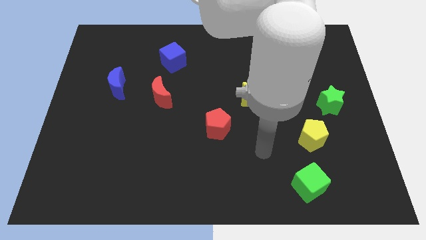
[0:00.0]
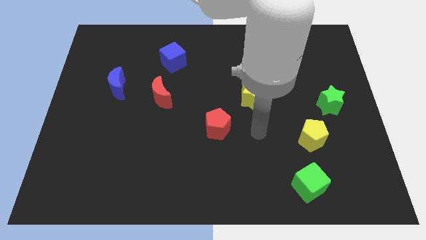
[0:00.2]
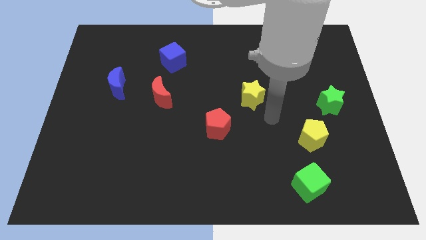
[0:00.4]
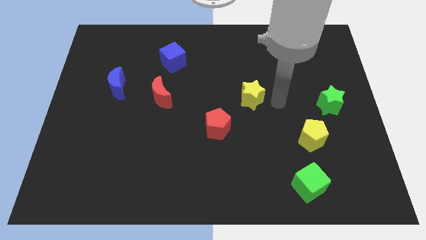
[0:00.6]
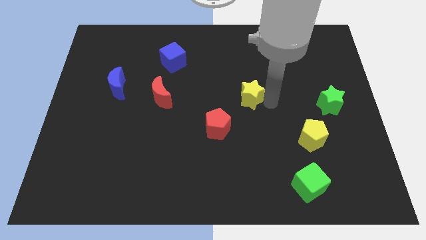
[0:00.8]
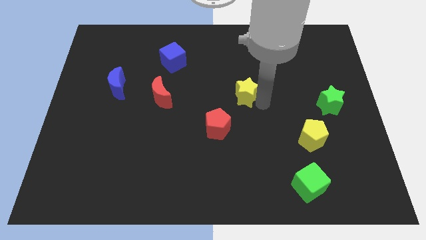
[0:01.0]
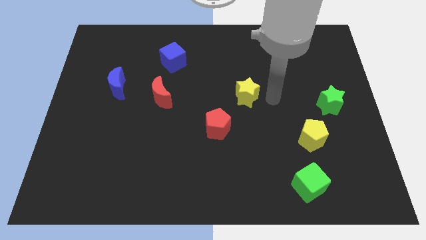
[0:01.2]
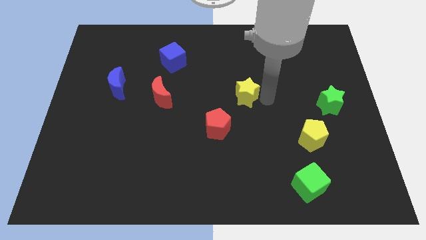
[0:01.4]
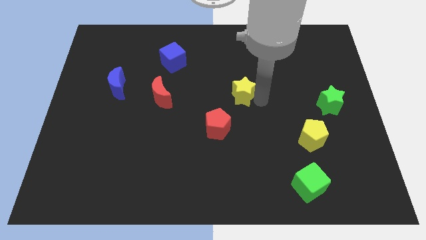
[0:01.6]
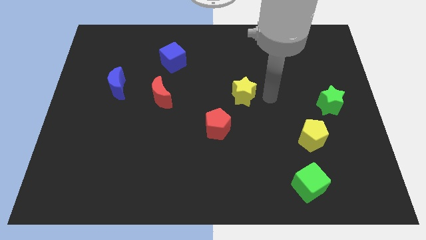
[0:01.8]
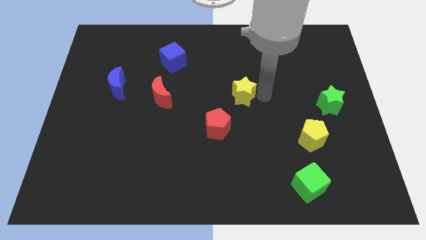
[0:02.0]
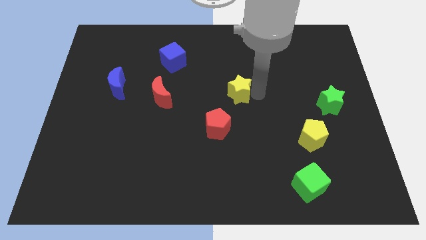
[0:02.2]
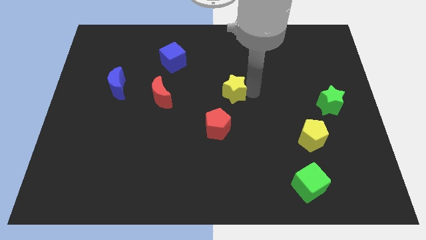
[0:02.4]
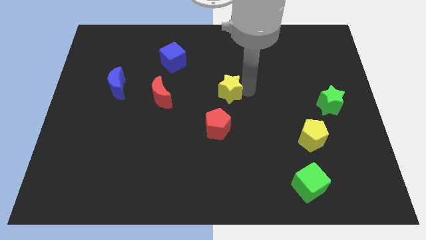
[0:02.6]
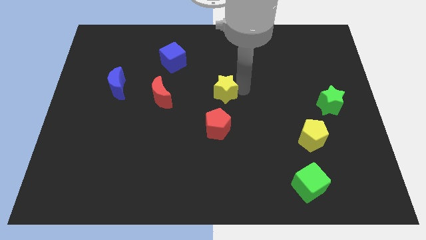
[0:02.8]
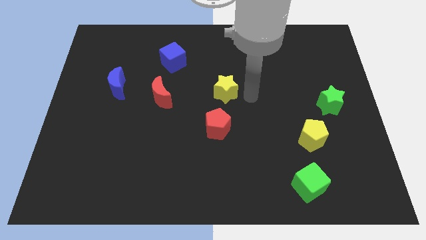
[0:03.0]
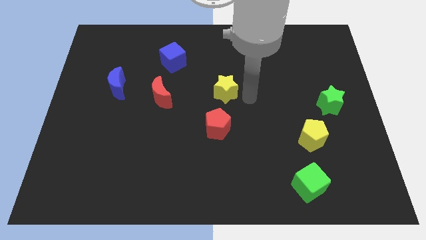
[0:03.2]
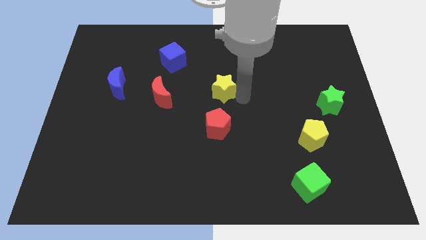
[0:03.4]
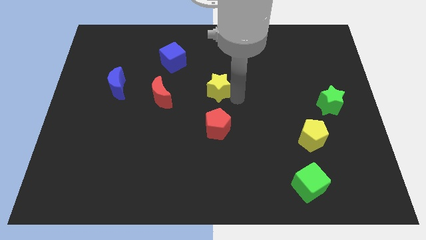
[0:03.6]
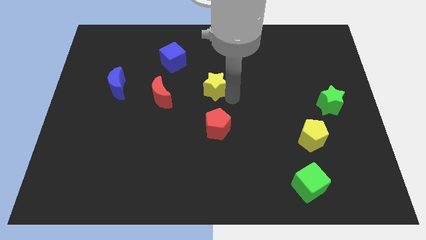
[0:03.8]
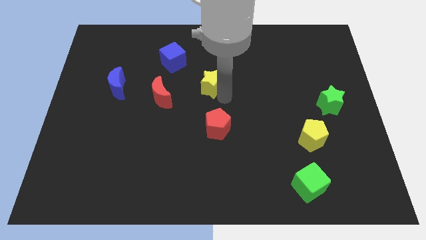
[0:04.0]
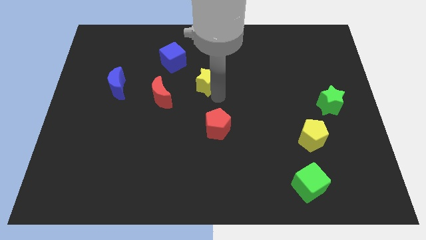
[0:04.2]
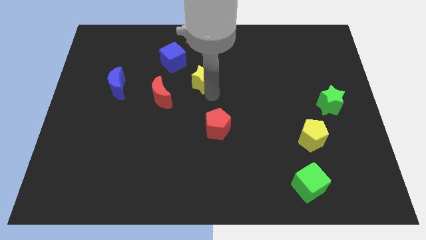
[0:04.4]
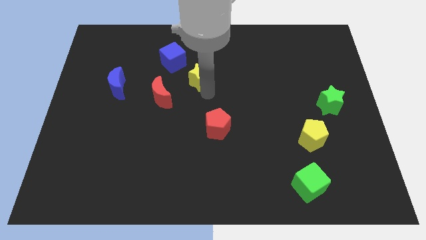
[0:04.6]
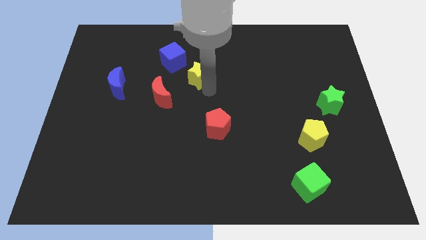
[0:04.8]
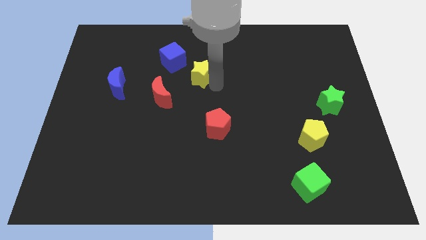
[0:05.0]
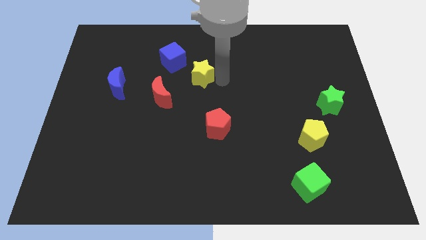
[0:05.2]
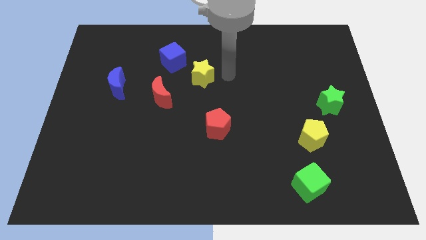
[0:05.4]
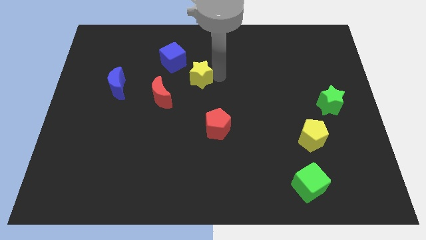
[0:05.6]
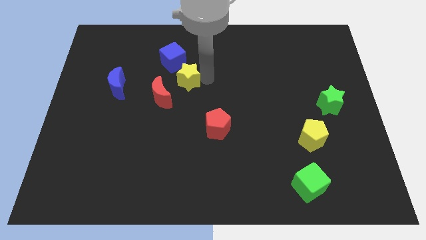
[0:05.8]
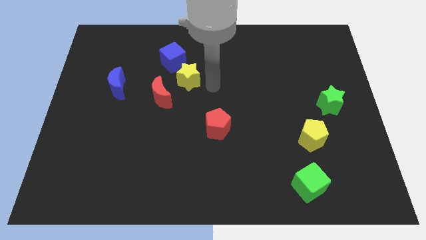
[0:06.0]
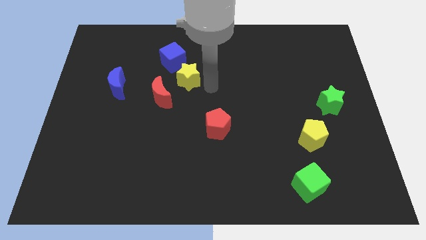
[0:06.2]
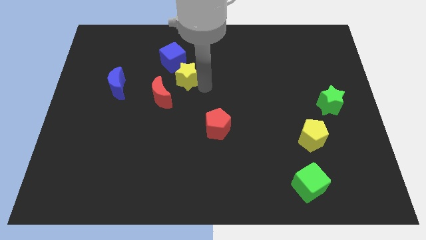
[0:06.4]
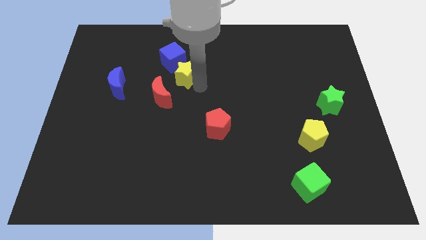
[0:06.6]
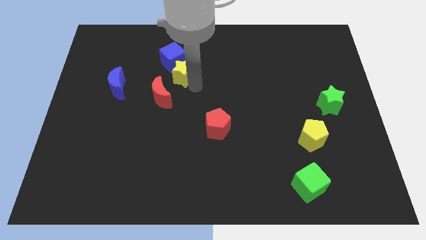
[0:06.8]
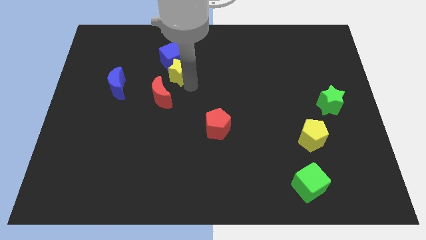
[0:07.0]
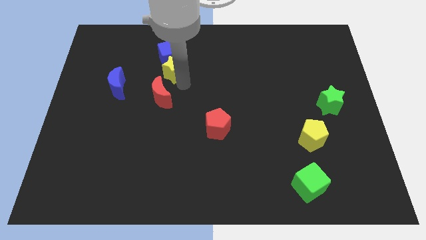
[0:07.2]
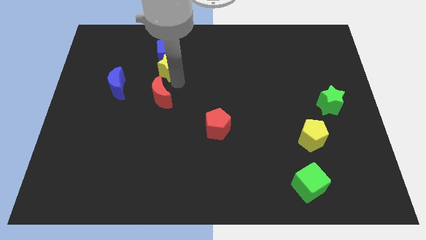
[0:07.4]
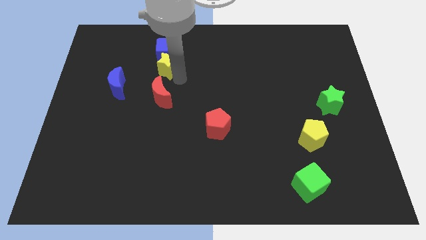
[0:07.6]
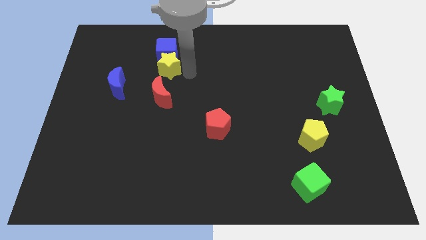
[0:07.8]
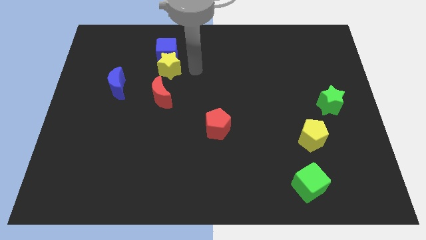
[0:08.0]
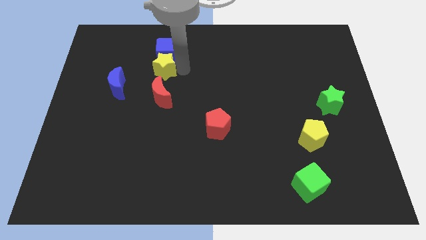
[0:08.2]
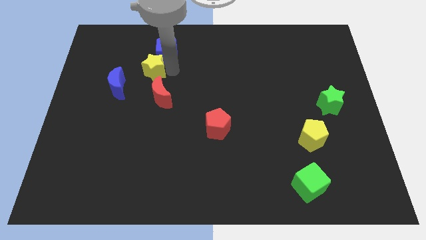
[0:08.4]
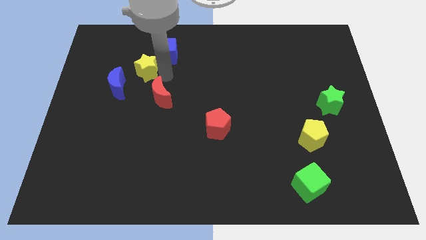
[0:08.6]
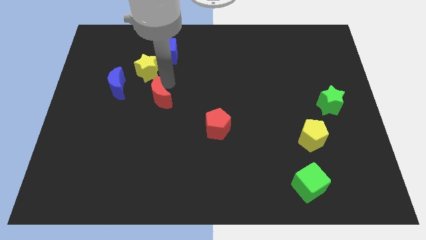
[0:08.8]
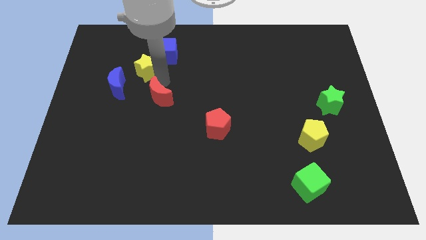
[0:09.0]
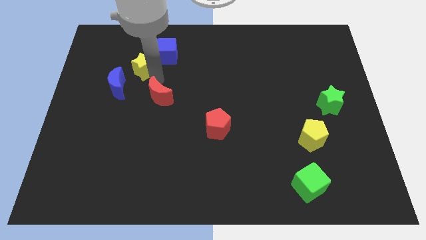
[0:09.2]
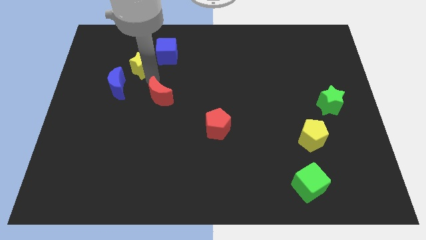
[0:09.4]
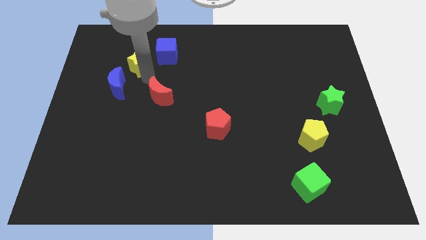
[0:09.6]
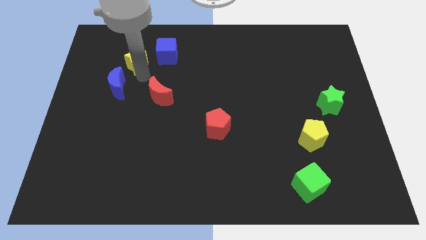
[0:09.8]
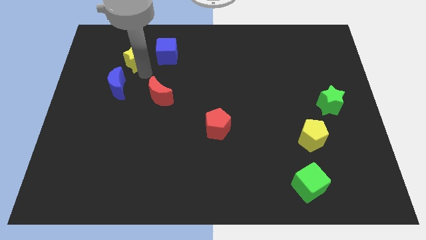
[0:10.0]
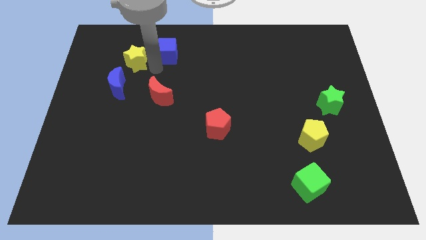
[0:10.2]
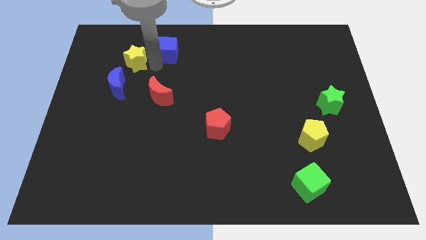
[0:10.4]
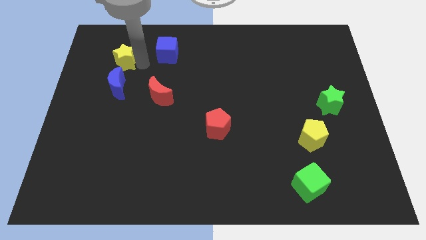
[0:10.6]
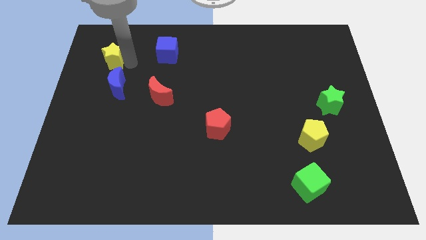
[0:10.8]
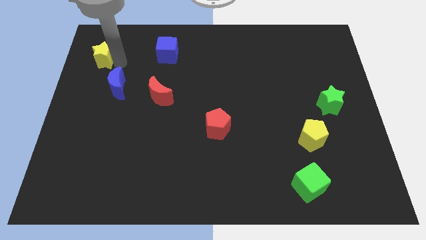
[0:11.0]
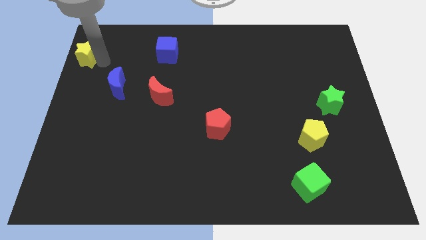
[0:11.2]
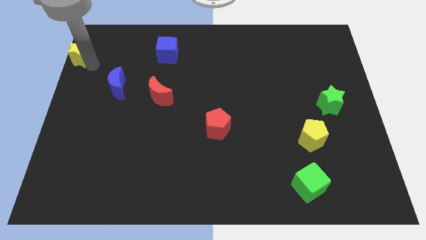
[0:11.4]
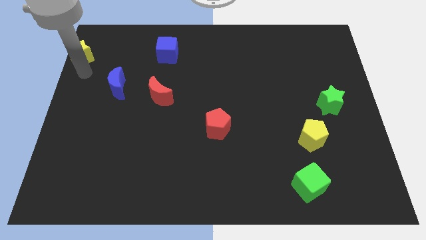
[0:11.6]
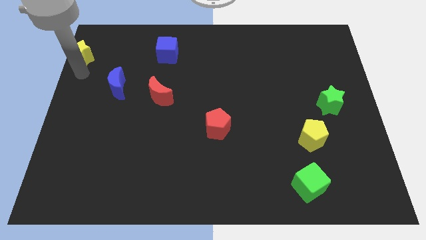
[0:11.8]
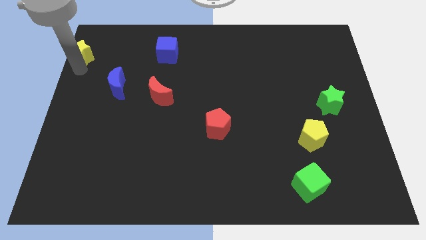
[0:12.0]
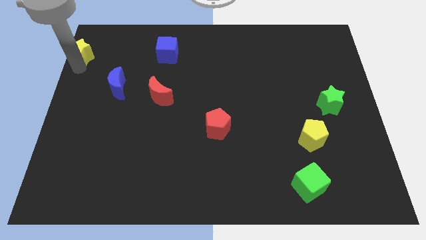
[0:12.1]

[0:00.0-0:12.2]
slide the yellow star to the upper left corner
